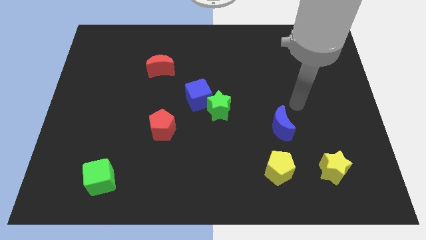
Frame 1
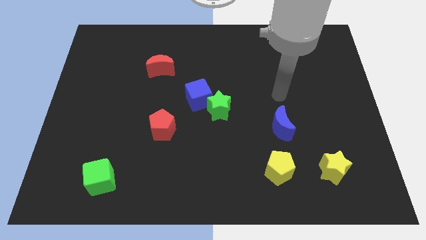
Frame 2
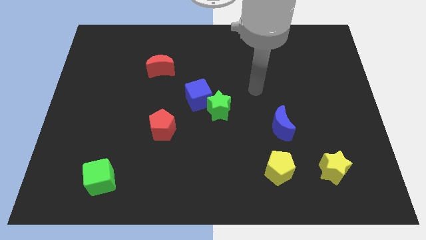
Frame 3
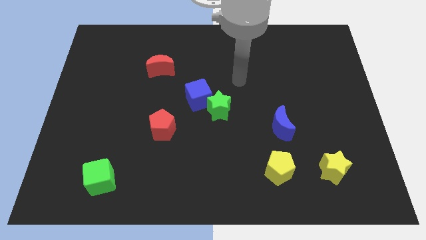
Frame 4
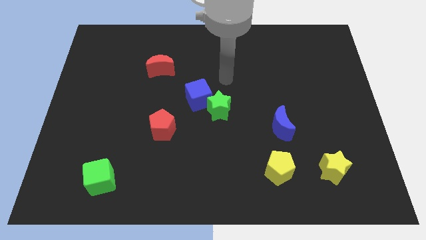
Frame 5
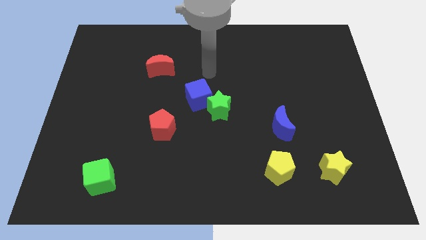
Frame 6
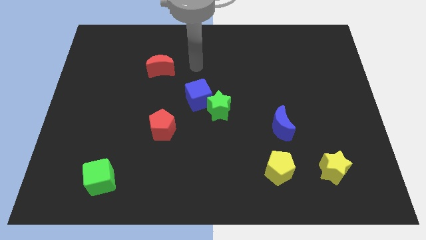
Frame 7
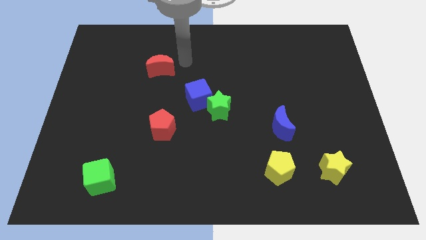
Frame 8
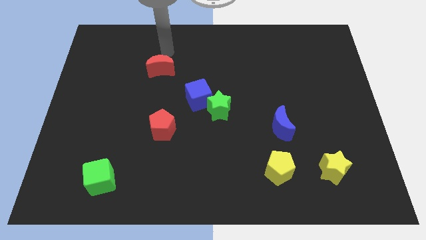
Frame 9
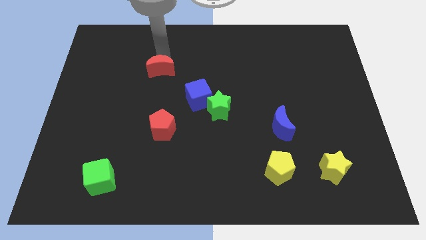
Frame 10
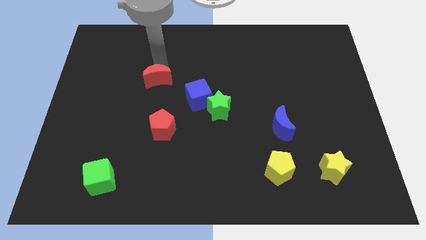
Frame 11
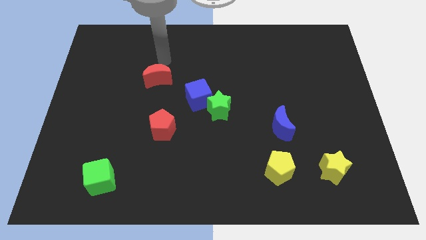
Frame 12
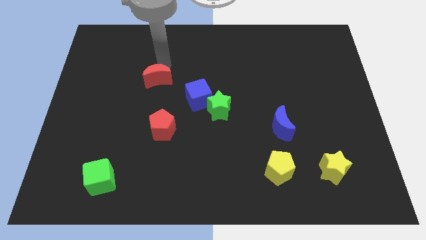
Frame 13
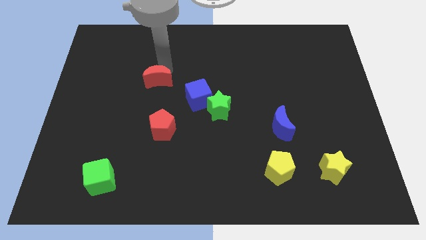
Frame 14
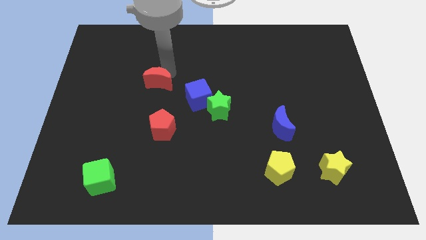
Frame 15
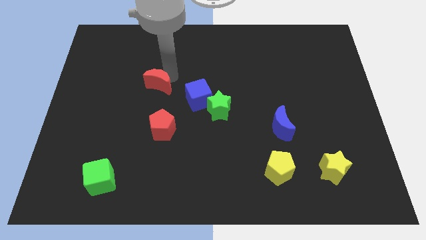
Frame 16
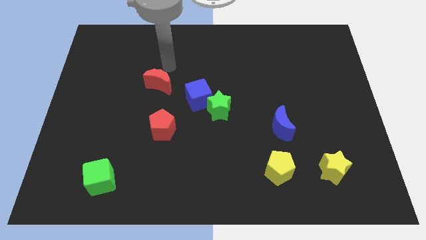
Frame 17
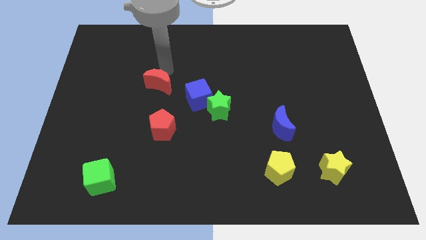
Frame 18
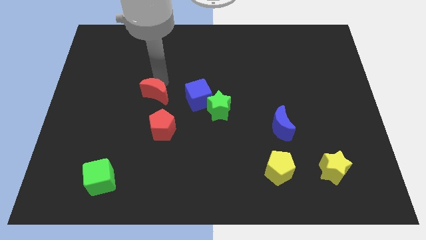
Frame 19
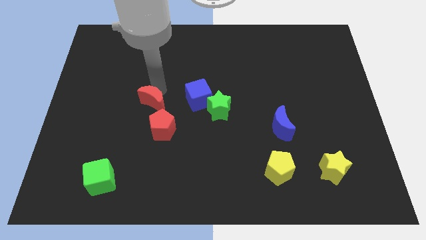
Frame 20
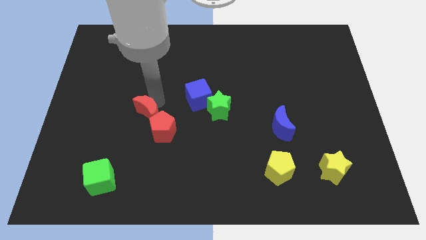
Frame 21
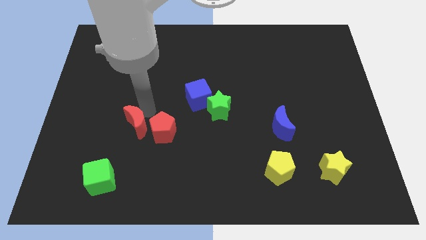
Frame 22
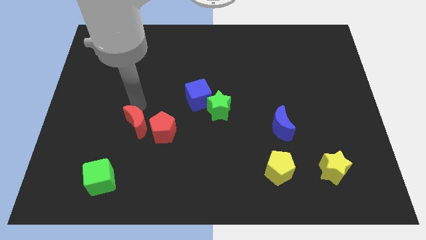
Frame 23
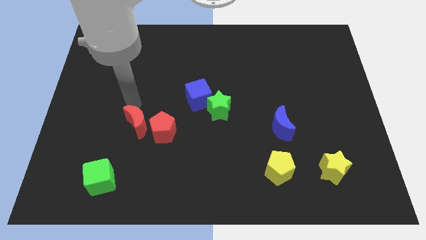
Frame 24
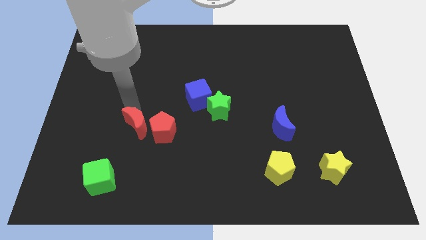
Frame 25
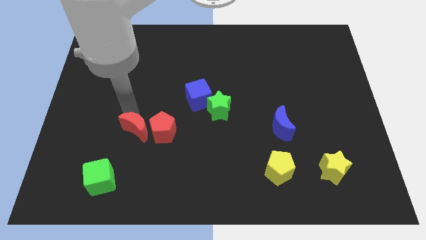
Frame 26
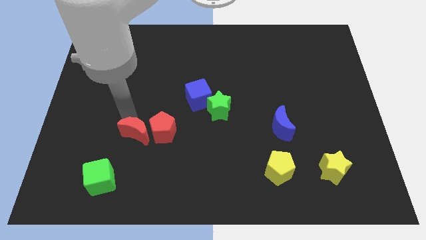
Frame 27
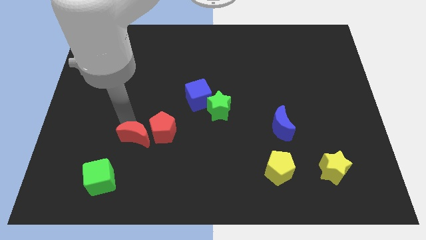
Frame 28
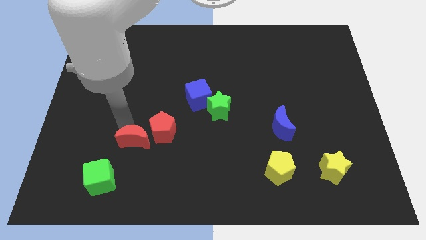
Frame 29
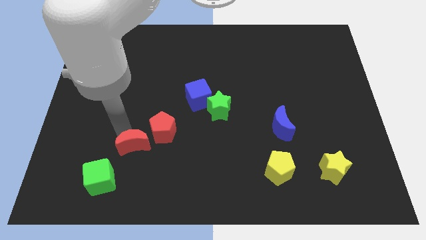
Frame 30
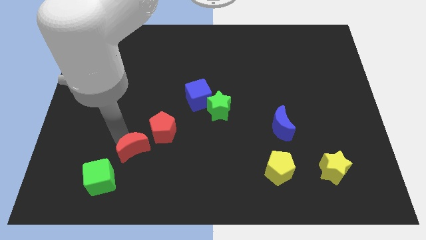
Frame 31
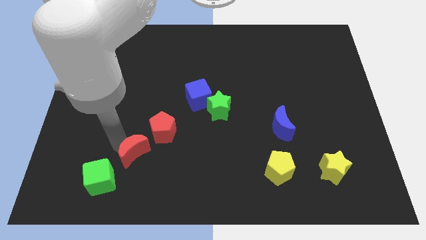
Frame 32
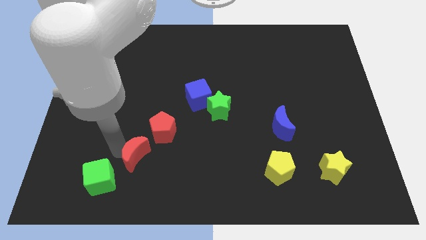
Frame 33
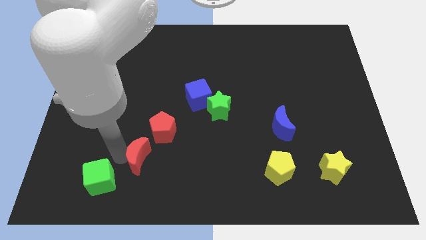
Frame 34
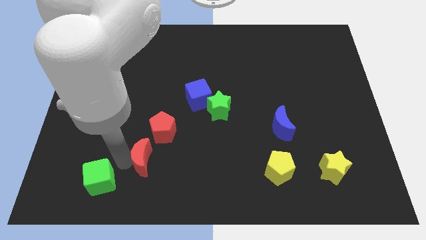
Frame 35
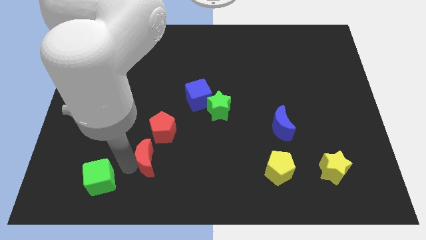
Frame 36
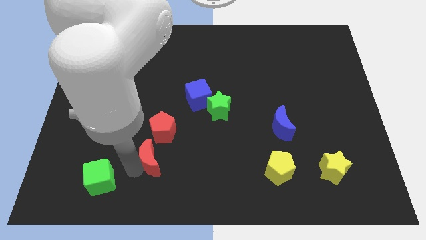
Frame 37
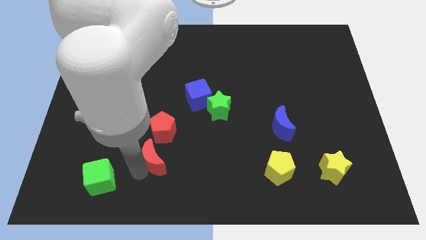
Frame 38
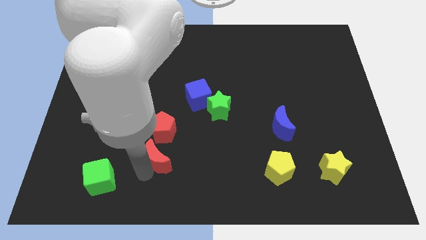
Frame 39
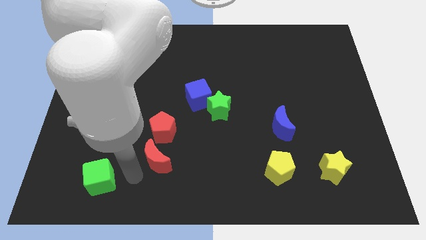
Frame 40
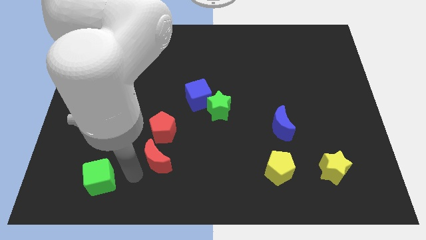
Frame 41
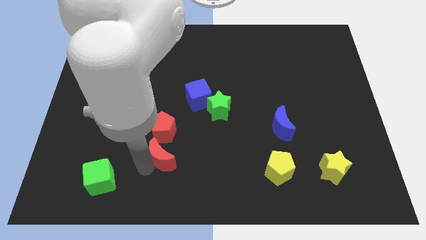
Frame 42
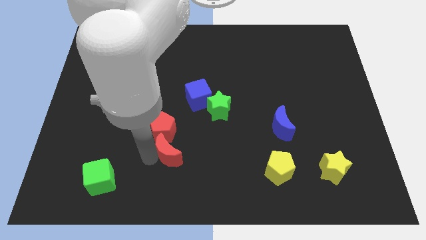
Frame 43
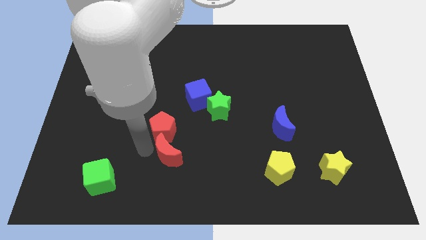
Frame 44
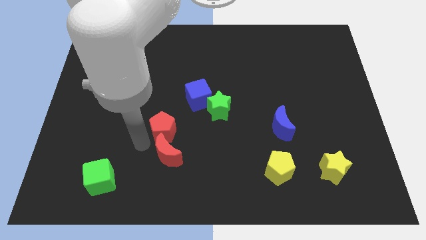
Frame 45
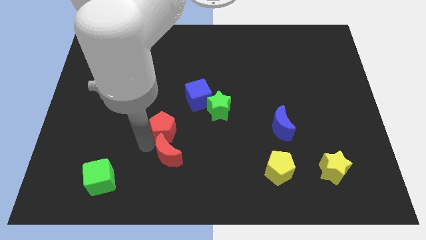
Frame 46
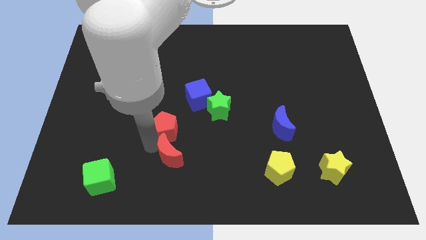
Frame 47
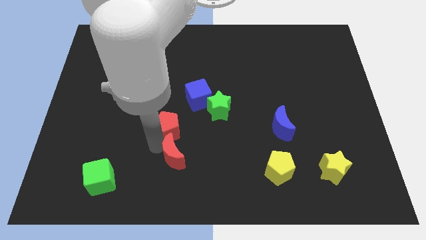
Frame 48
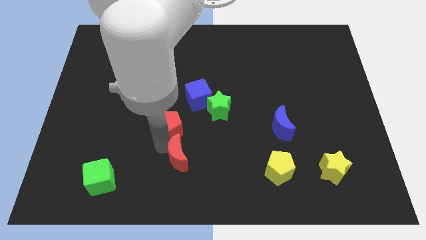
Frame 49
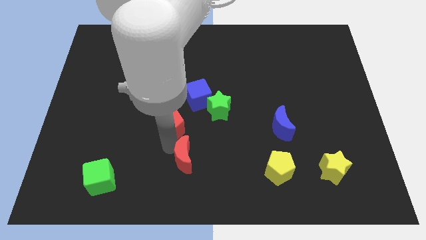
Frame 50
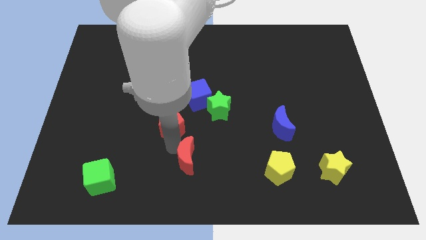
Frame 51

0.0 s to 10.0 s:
slide the red moon to the bottom side

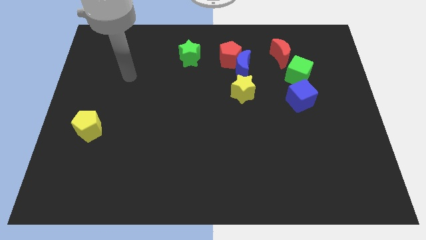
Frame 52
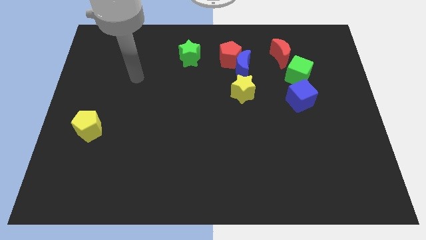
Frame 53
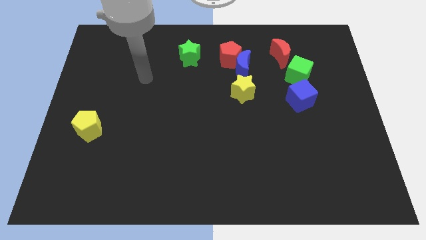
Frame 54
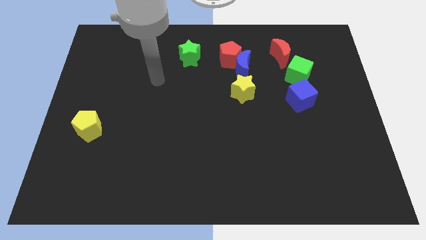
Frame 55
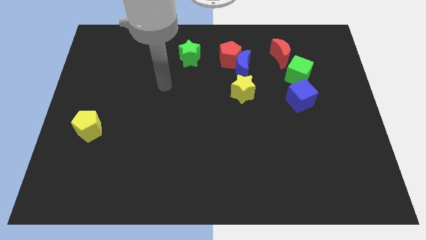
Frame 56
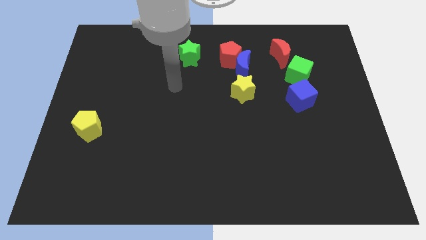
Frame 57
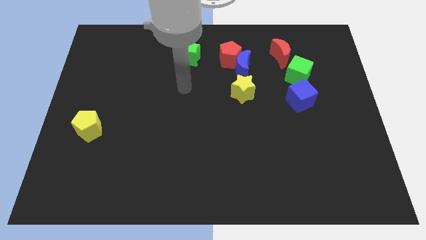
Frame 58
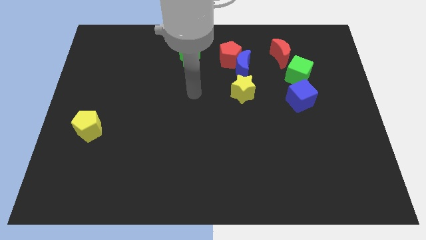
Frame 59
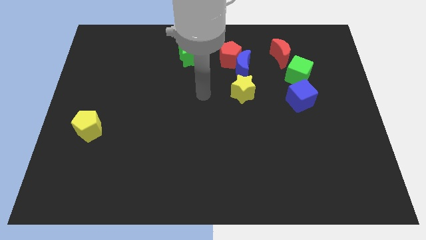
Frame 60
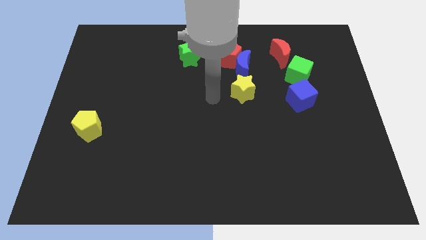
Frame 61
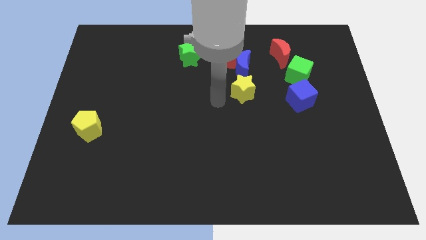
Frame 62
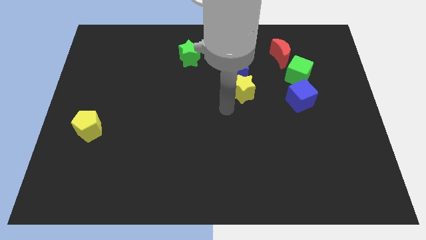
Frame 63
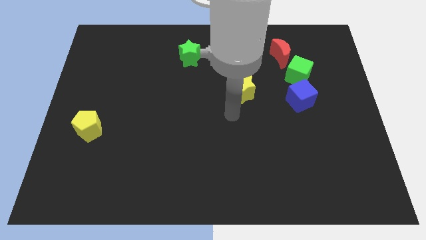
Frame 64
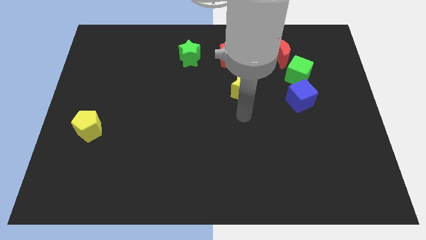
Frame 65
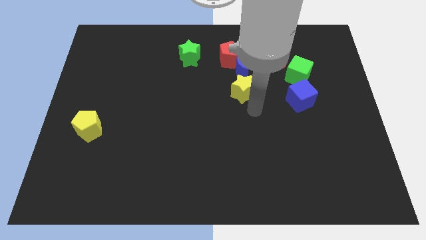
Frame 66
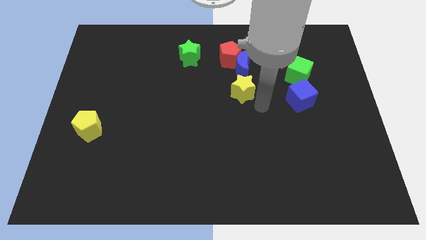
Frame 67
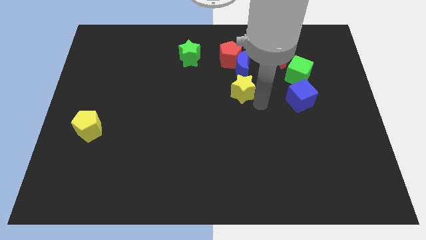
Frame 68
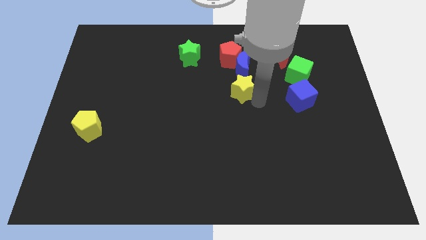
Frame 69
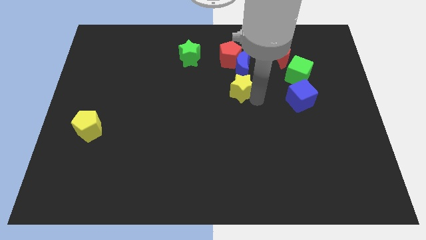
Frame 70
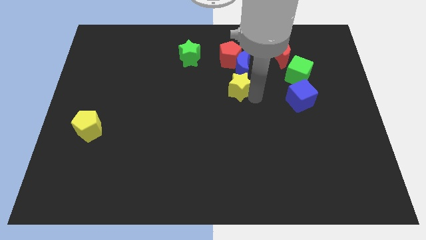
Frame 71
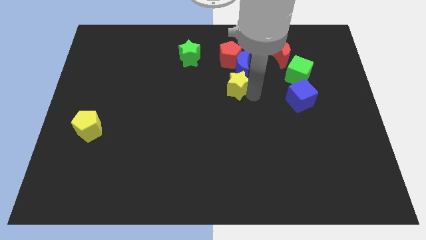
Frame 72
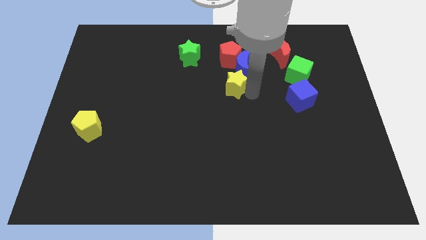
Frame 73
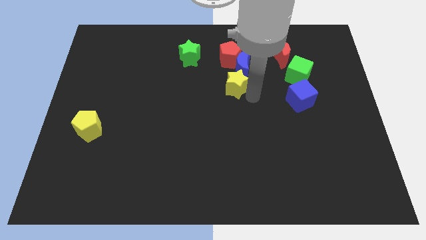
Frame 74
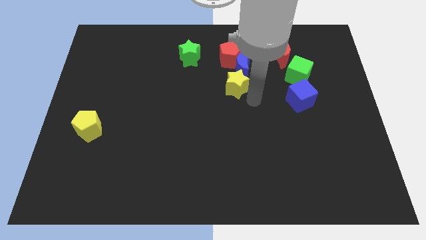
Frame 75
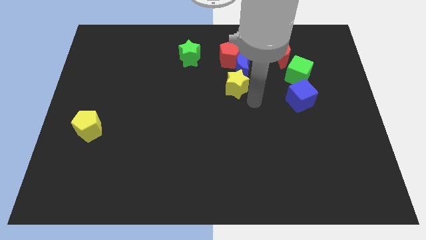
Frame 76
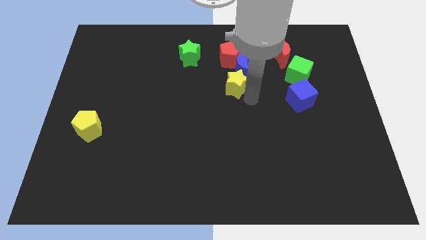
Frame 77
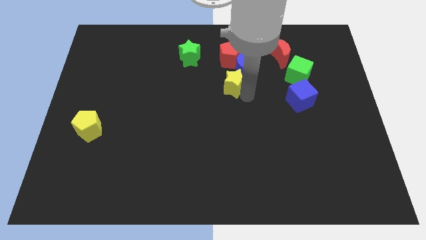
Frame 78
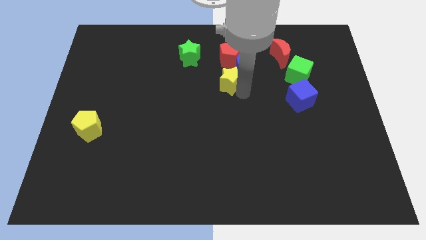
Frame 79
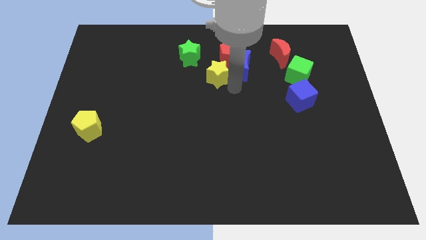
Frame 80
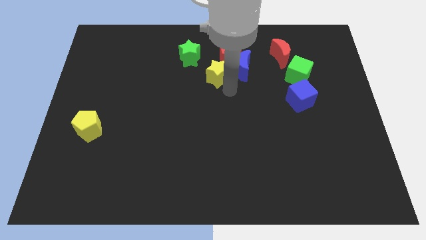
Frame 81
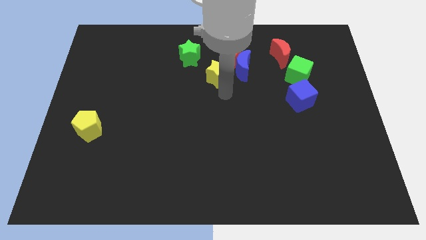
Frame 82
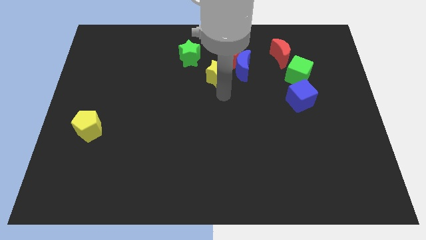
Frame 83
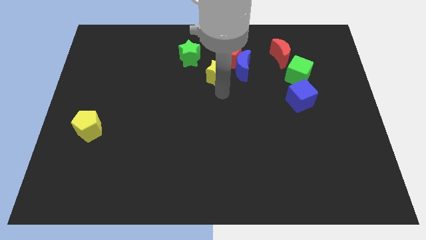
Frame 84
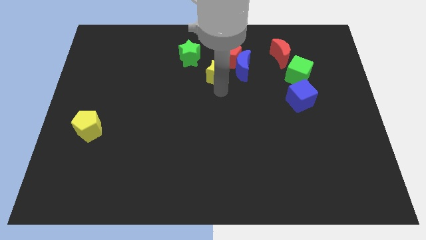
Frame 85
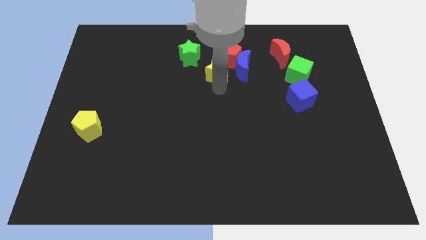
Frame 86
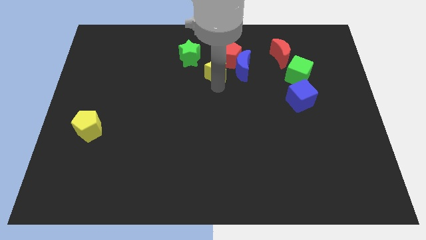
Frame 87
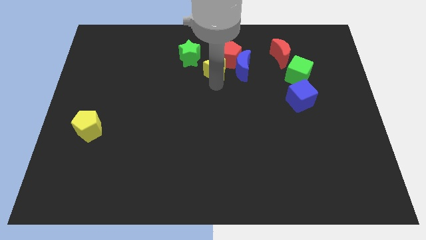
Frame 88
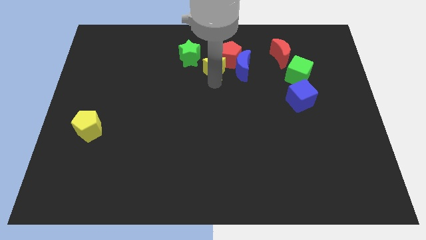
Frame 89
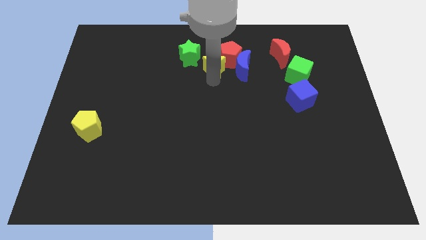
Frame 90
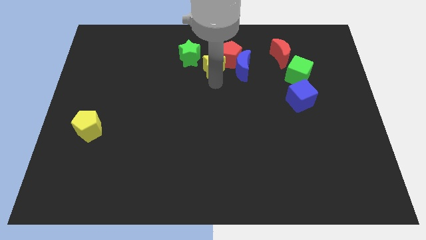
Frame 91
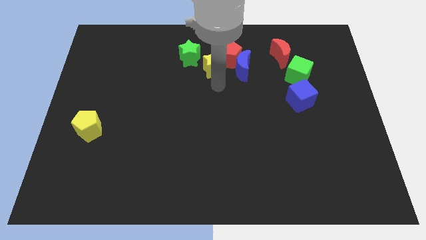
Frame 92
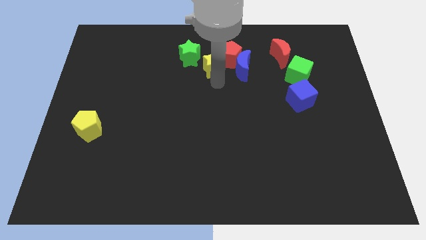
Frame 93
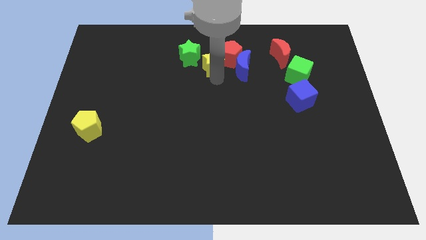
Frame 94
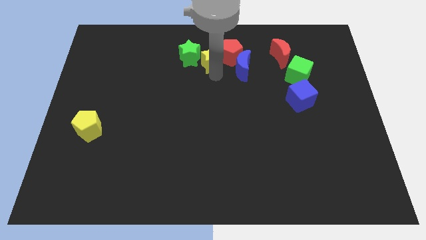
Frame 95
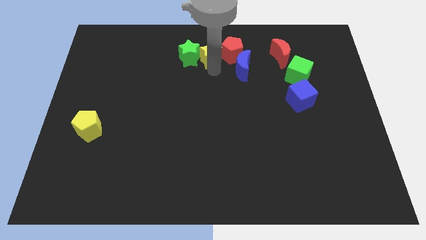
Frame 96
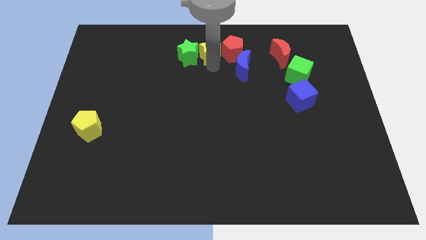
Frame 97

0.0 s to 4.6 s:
push the yellow star to the top side
